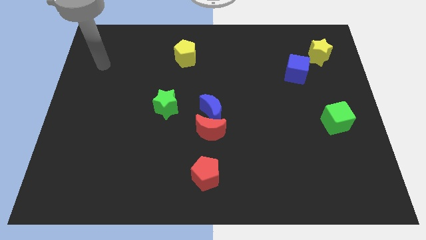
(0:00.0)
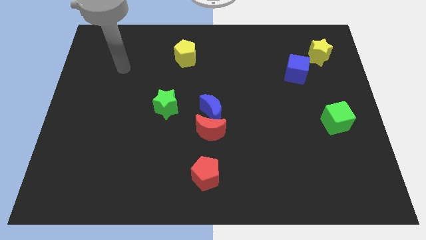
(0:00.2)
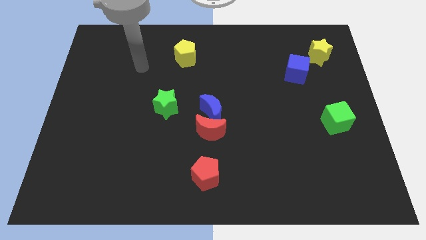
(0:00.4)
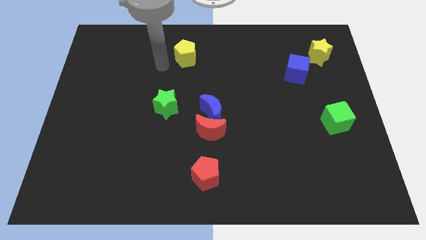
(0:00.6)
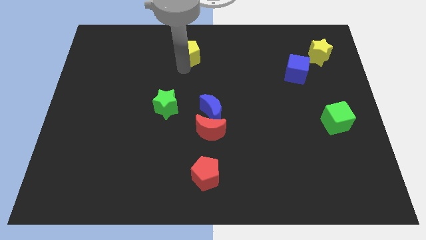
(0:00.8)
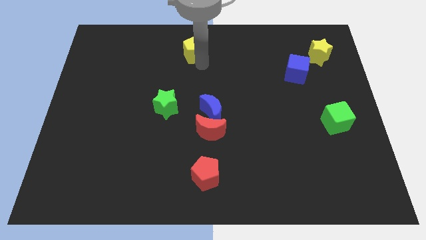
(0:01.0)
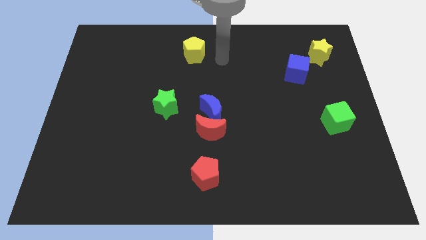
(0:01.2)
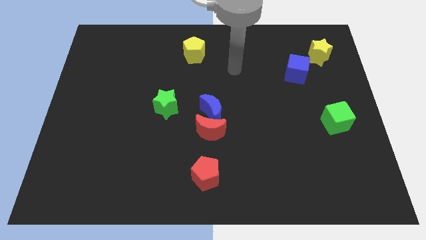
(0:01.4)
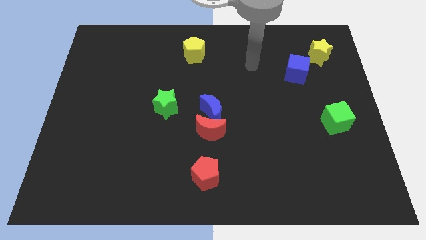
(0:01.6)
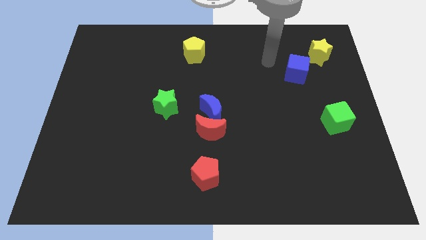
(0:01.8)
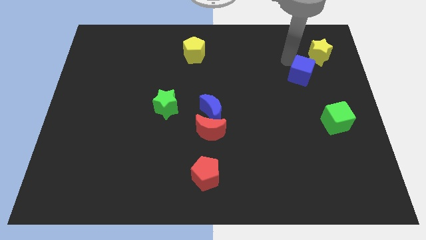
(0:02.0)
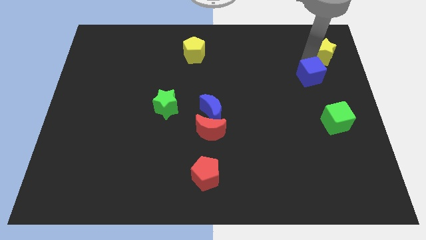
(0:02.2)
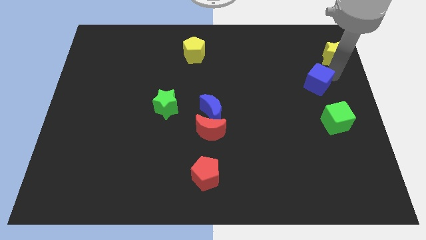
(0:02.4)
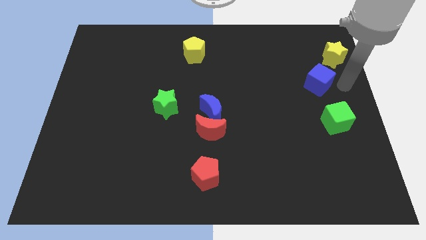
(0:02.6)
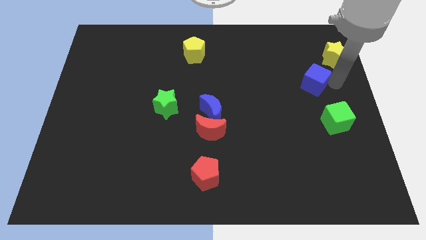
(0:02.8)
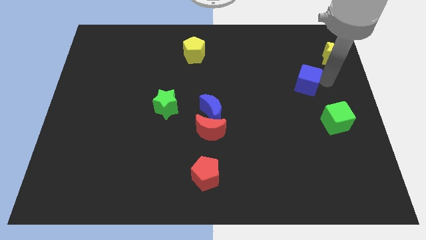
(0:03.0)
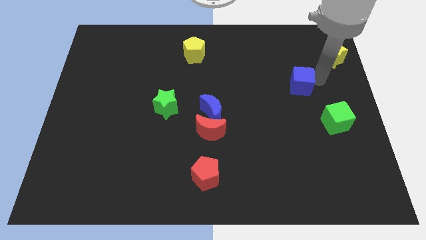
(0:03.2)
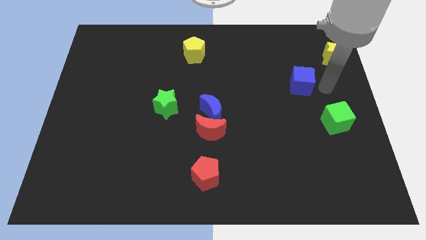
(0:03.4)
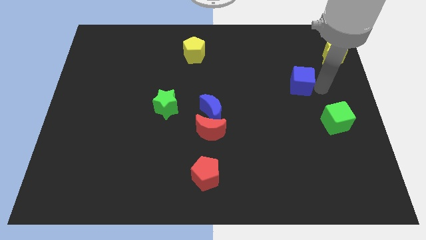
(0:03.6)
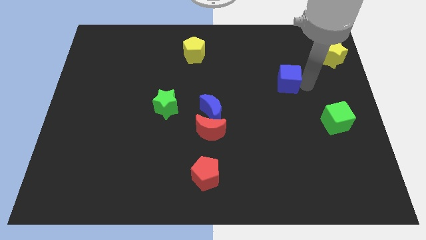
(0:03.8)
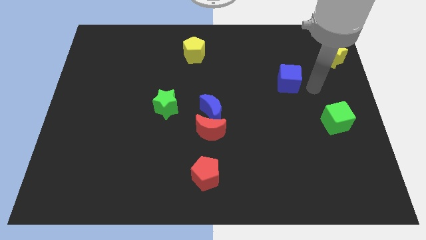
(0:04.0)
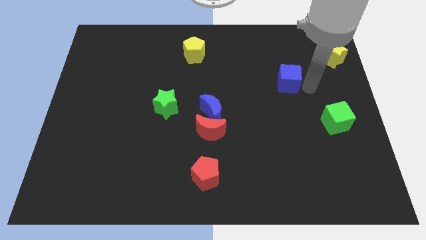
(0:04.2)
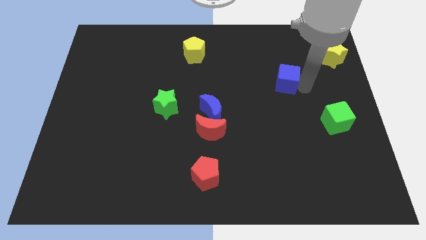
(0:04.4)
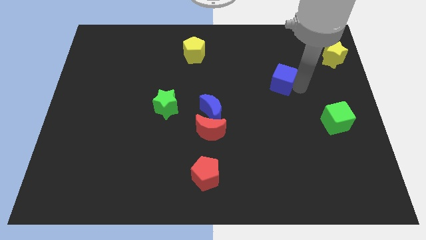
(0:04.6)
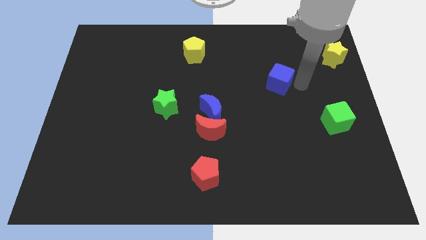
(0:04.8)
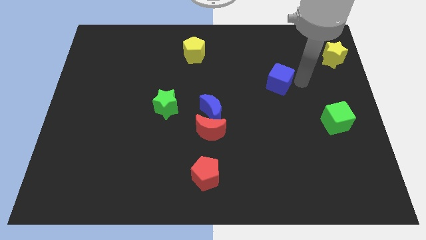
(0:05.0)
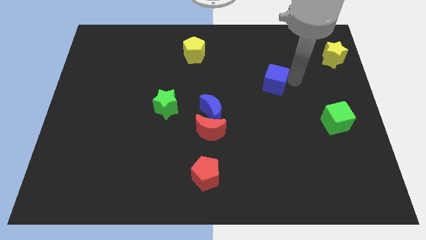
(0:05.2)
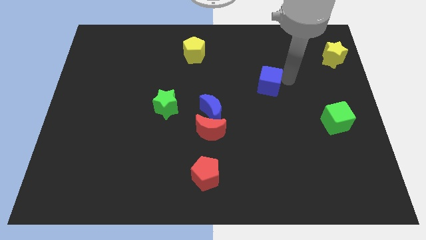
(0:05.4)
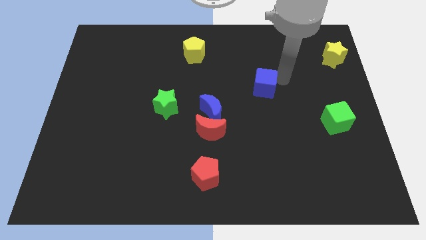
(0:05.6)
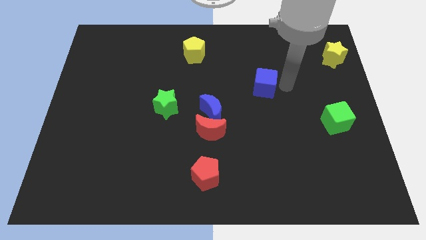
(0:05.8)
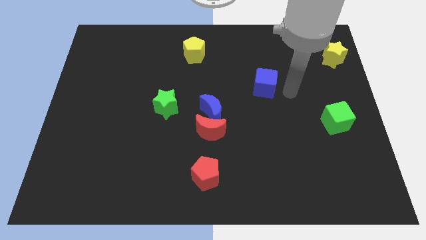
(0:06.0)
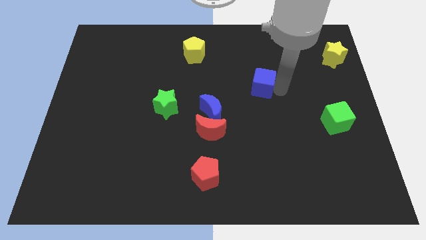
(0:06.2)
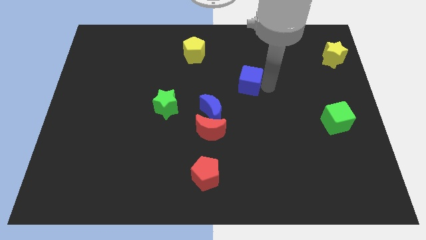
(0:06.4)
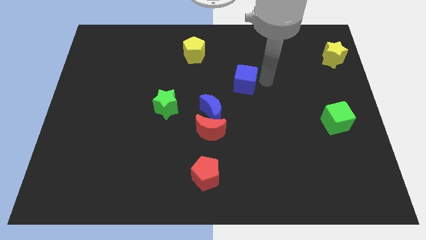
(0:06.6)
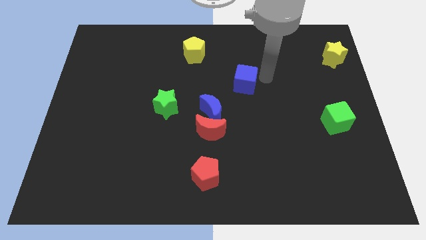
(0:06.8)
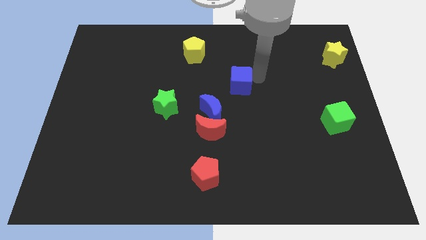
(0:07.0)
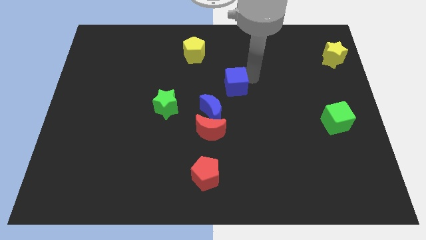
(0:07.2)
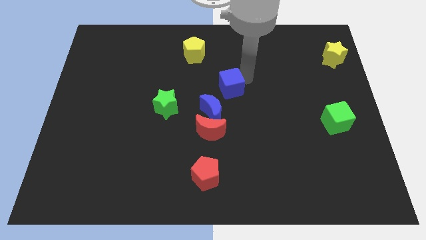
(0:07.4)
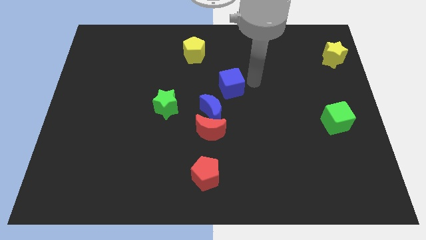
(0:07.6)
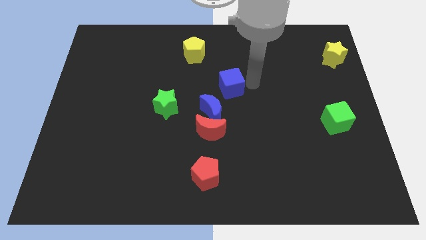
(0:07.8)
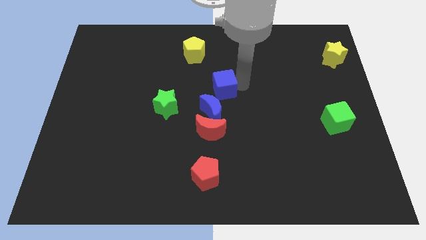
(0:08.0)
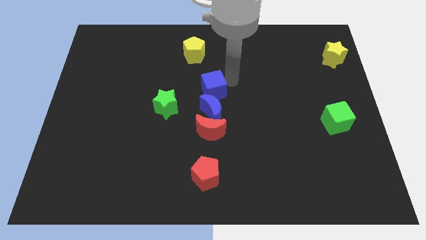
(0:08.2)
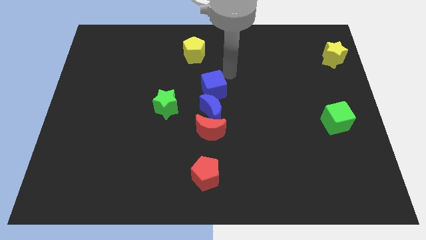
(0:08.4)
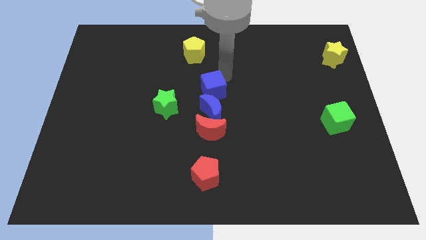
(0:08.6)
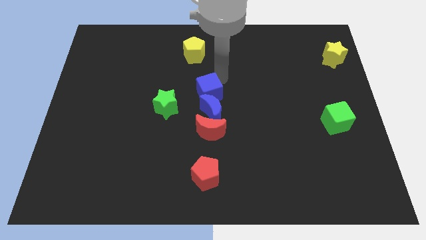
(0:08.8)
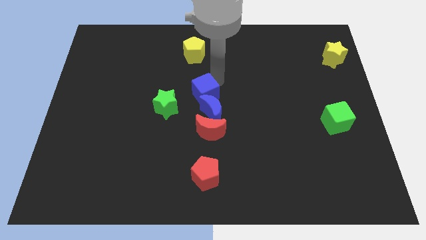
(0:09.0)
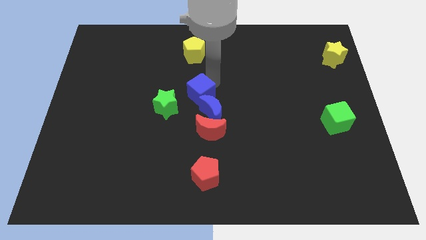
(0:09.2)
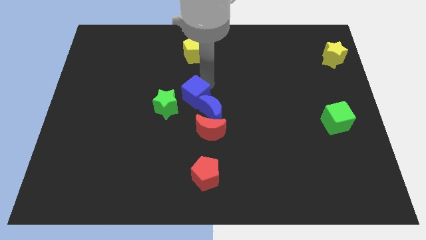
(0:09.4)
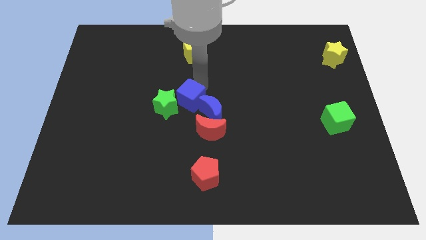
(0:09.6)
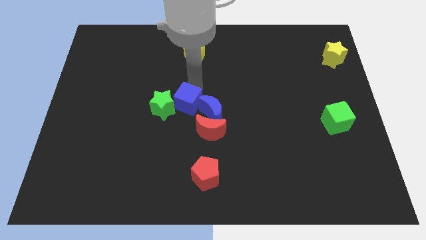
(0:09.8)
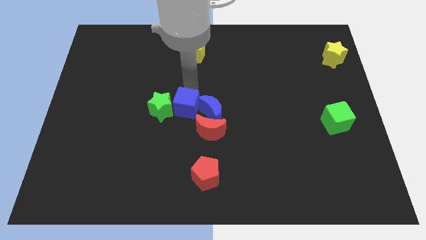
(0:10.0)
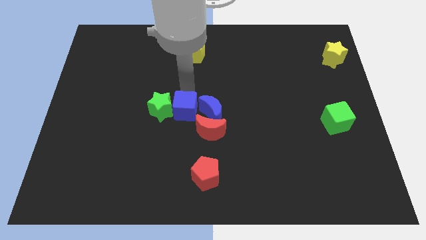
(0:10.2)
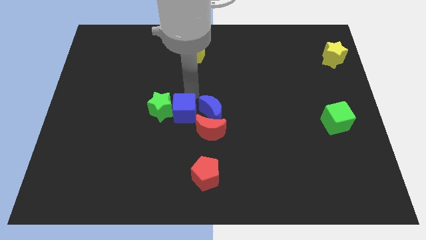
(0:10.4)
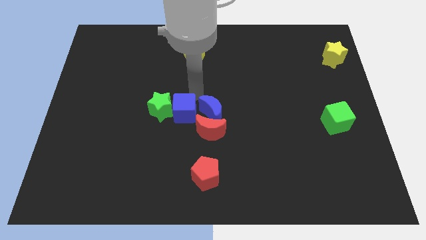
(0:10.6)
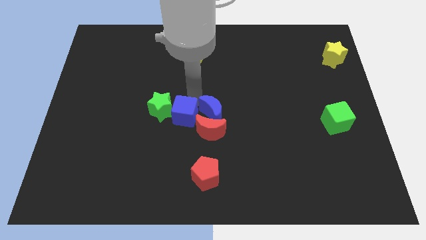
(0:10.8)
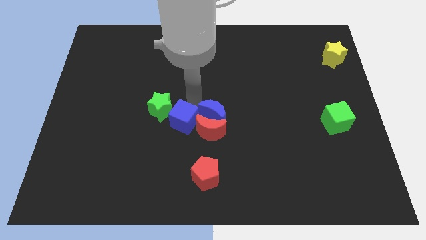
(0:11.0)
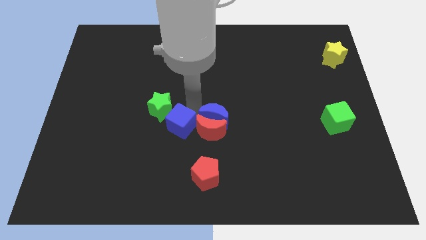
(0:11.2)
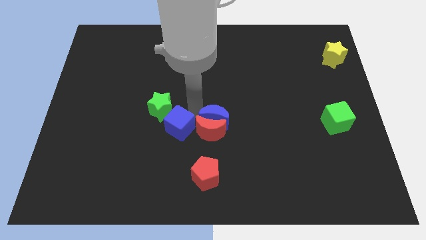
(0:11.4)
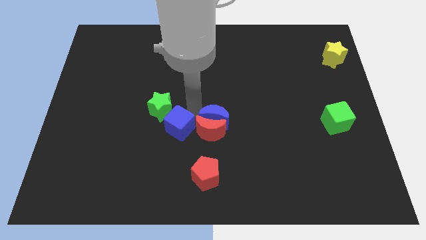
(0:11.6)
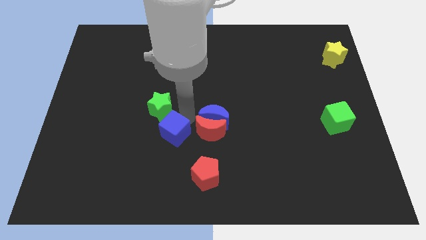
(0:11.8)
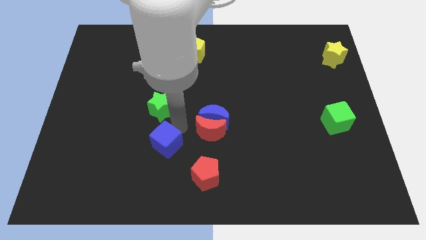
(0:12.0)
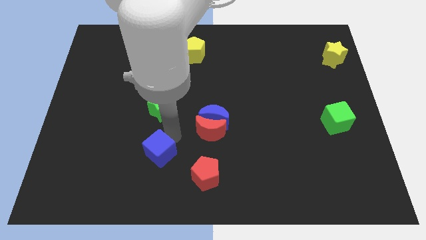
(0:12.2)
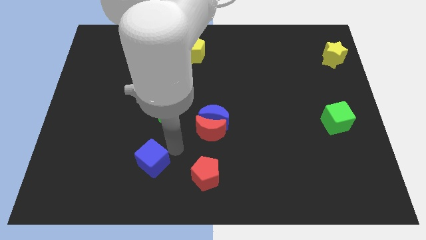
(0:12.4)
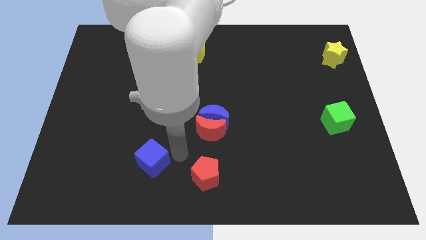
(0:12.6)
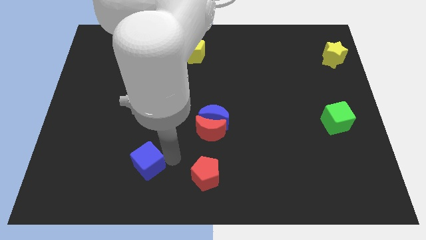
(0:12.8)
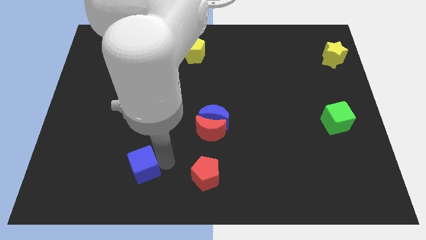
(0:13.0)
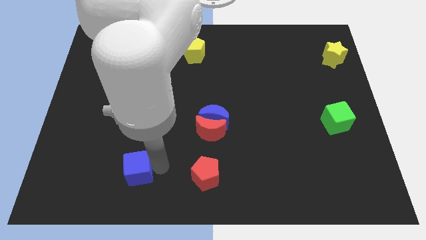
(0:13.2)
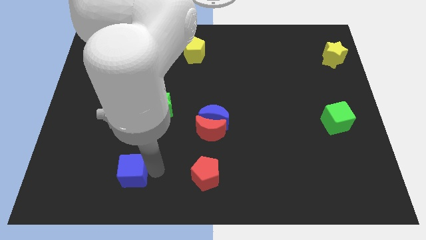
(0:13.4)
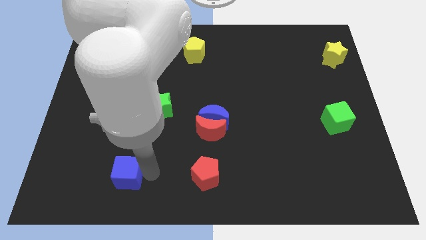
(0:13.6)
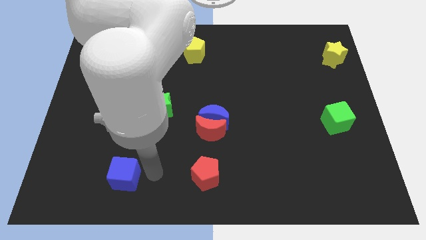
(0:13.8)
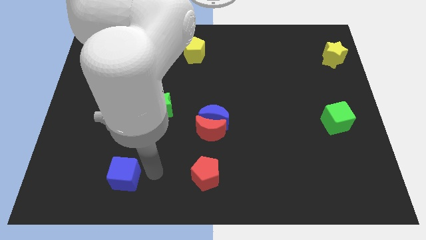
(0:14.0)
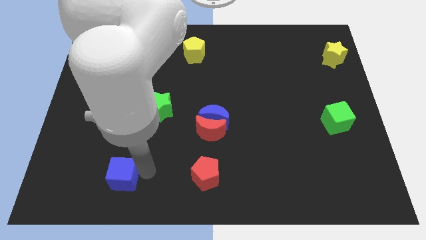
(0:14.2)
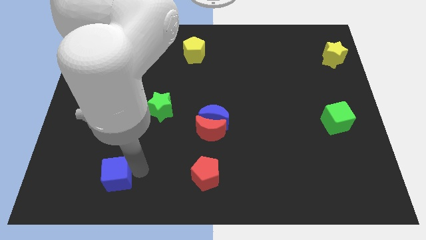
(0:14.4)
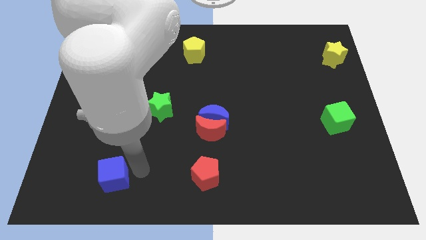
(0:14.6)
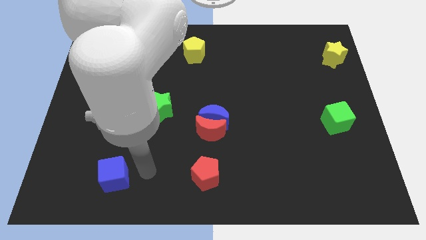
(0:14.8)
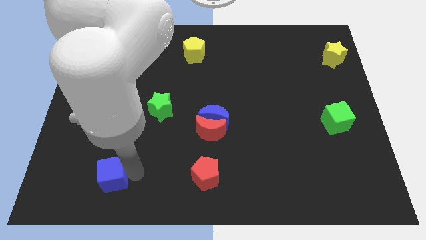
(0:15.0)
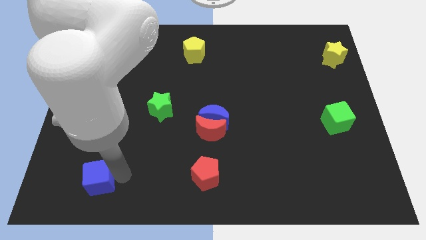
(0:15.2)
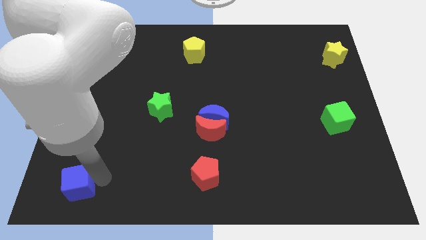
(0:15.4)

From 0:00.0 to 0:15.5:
slide the blue cube to the bottom left corner
